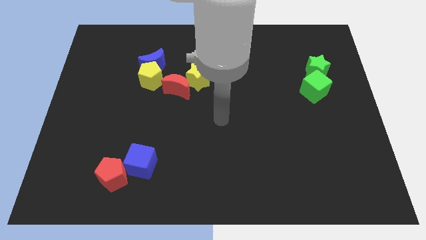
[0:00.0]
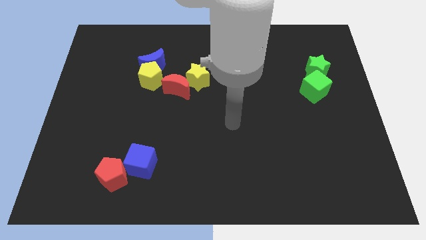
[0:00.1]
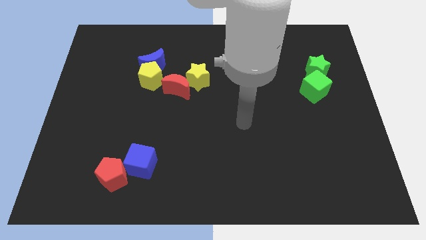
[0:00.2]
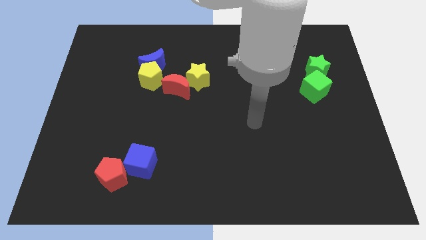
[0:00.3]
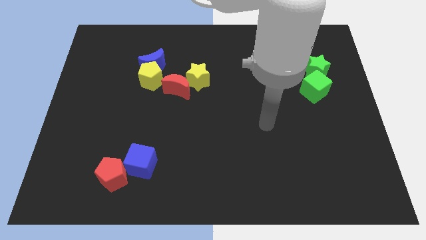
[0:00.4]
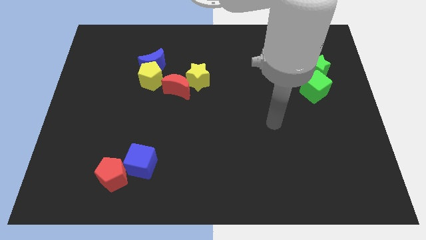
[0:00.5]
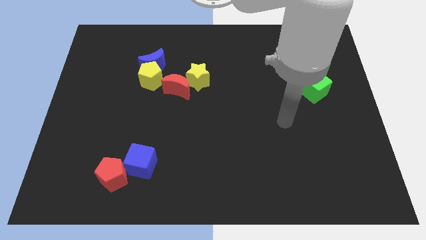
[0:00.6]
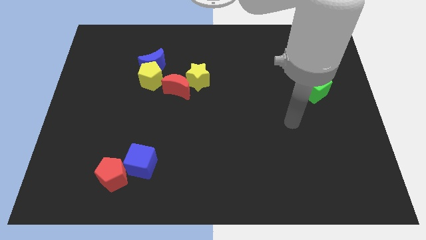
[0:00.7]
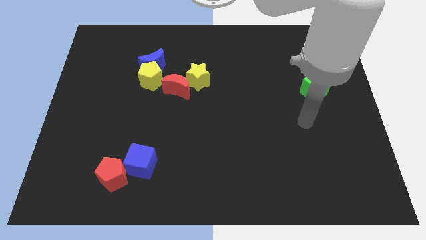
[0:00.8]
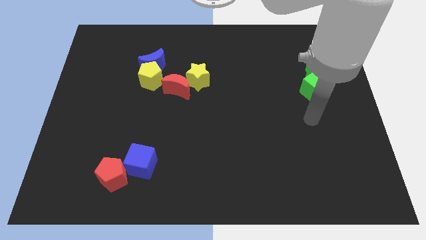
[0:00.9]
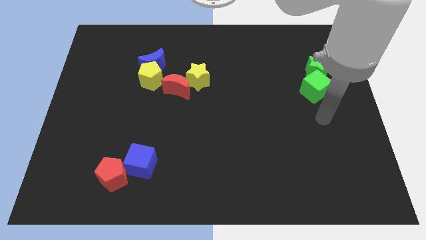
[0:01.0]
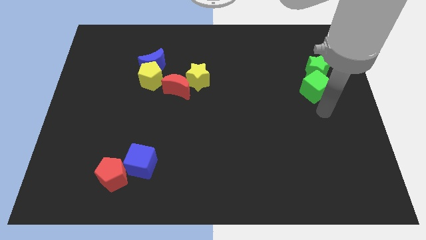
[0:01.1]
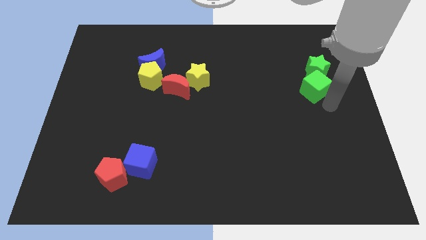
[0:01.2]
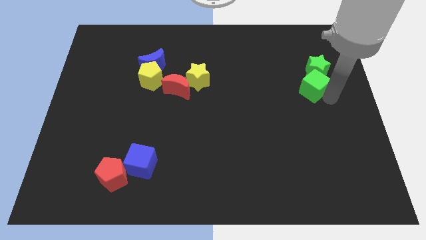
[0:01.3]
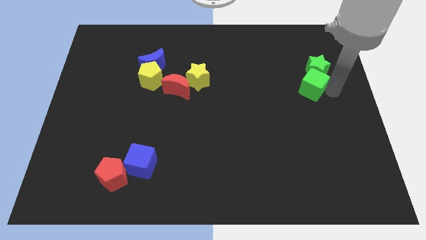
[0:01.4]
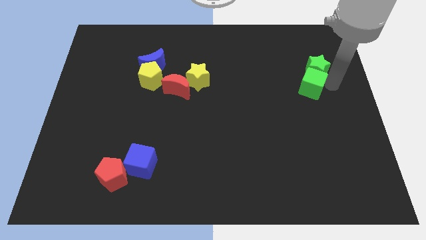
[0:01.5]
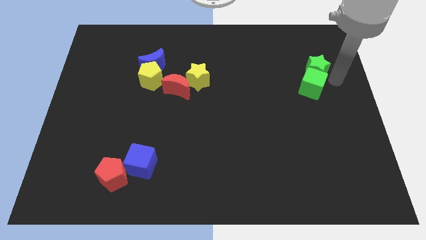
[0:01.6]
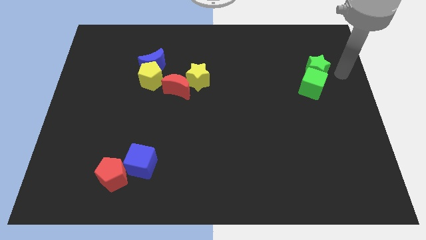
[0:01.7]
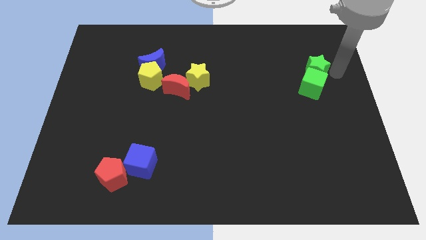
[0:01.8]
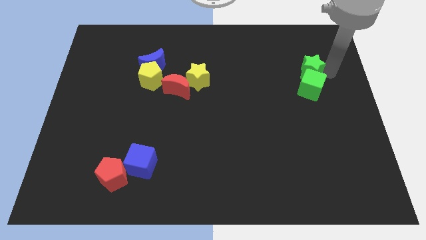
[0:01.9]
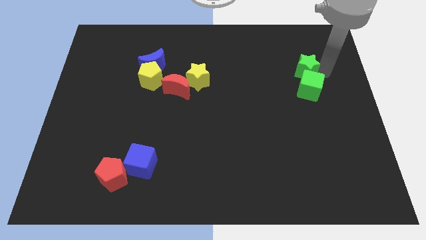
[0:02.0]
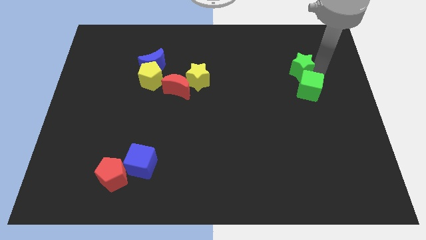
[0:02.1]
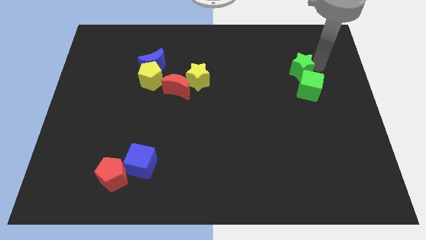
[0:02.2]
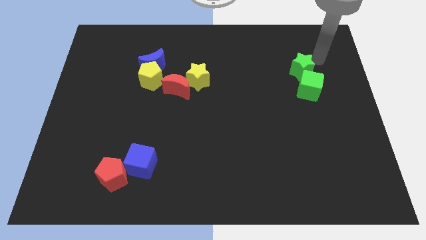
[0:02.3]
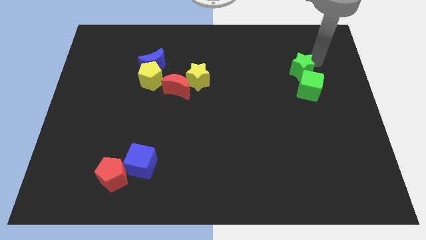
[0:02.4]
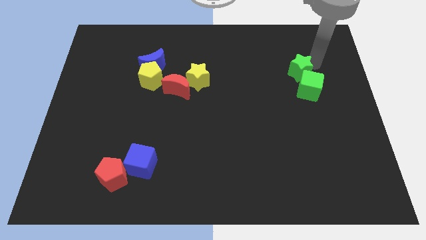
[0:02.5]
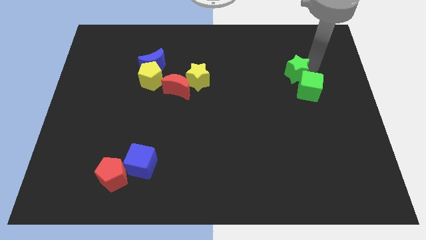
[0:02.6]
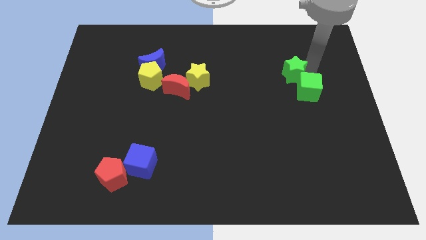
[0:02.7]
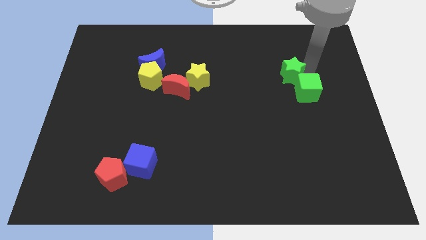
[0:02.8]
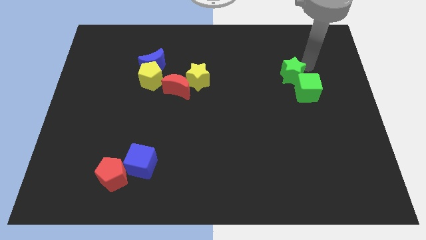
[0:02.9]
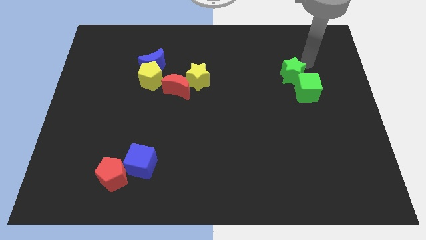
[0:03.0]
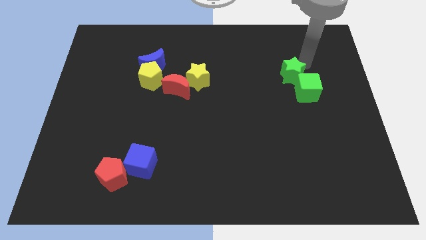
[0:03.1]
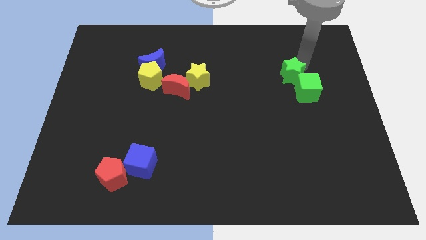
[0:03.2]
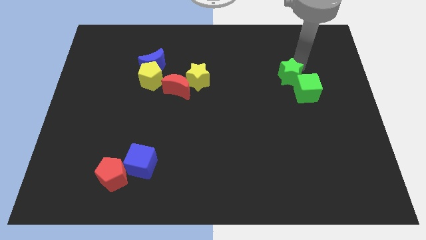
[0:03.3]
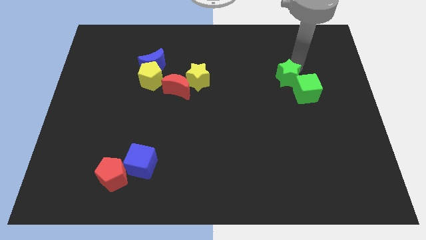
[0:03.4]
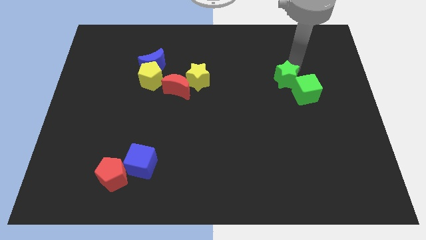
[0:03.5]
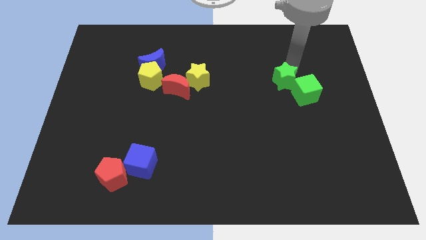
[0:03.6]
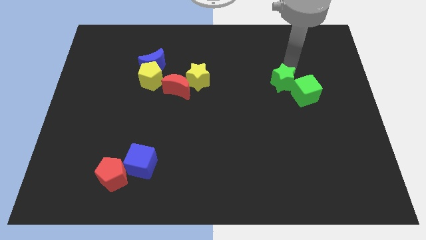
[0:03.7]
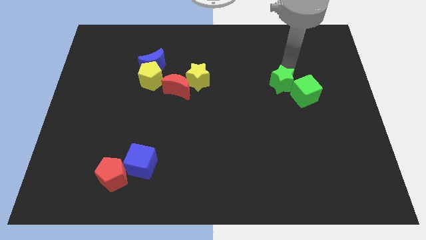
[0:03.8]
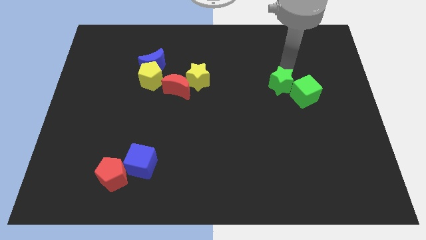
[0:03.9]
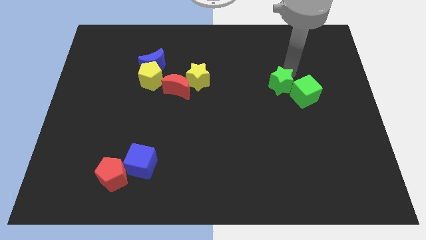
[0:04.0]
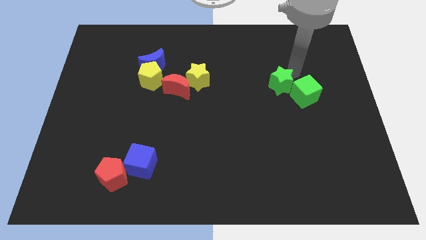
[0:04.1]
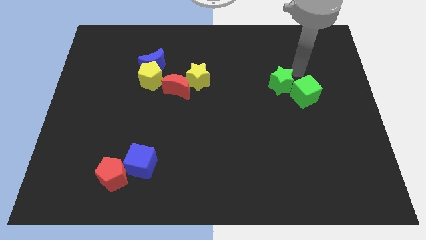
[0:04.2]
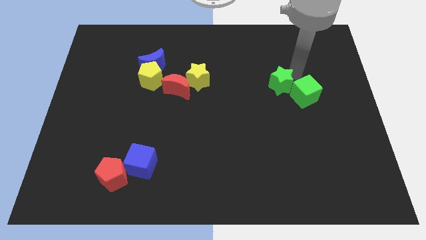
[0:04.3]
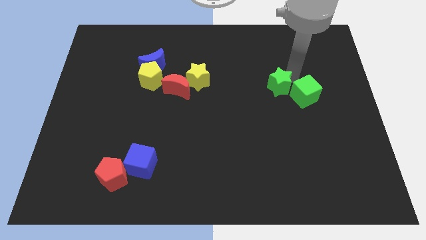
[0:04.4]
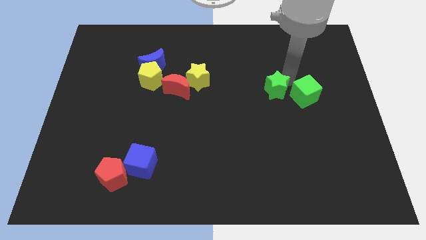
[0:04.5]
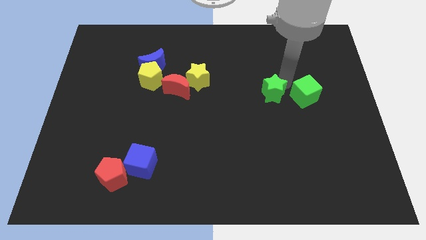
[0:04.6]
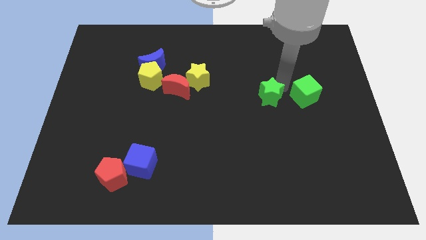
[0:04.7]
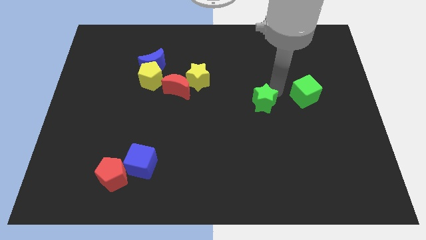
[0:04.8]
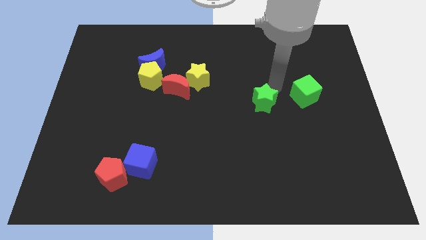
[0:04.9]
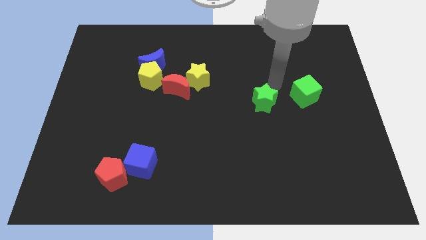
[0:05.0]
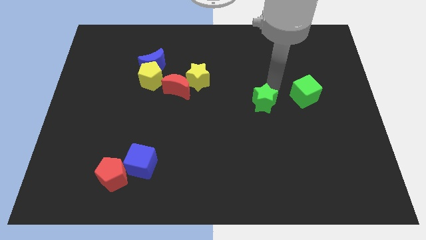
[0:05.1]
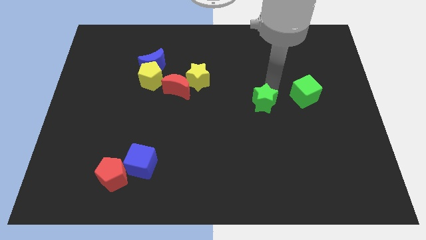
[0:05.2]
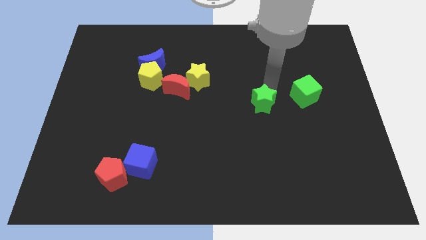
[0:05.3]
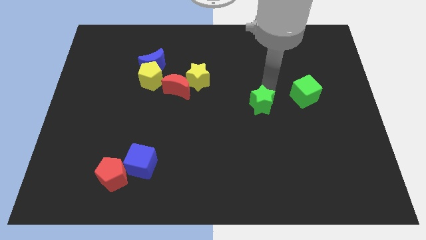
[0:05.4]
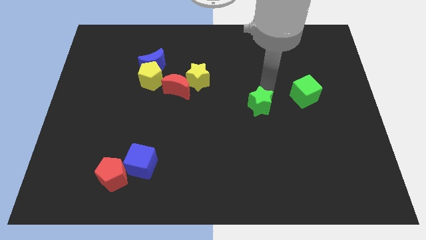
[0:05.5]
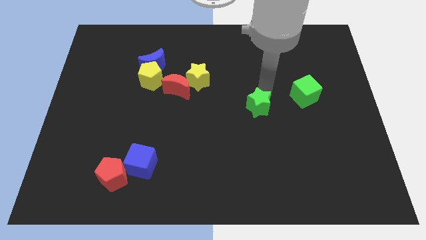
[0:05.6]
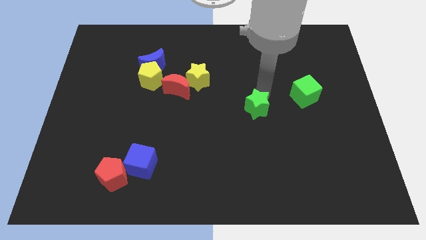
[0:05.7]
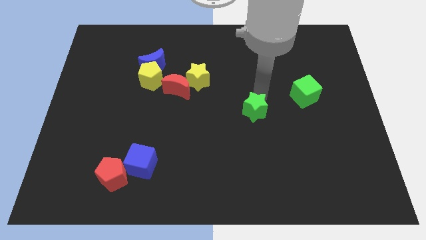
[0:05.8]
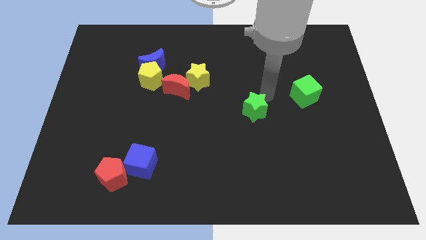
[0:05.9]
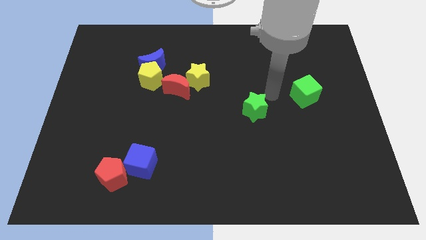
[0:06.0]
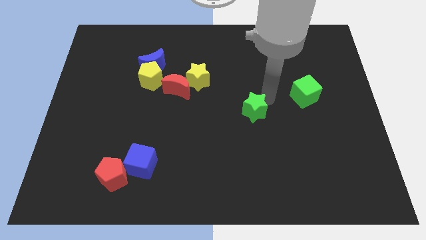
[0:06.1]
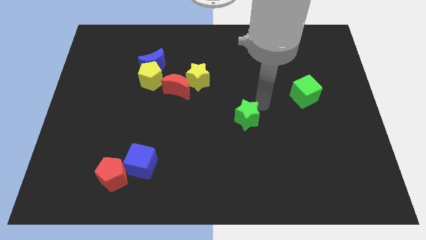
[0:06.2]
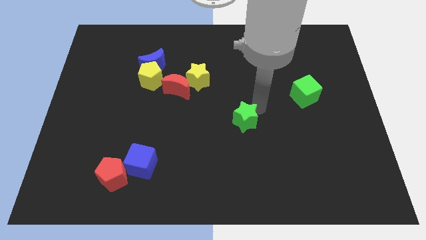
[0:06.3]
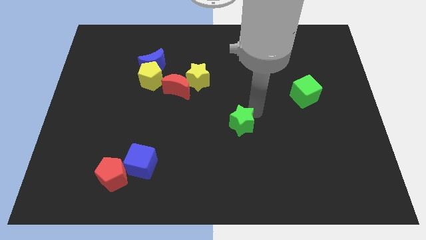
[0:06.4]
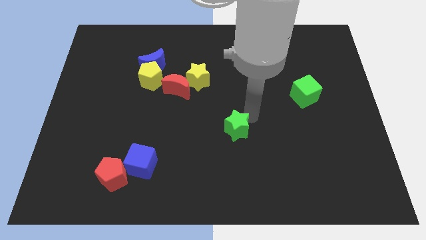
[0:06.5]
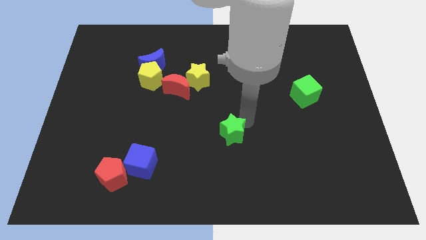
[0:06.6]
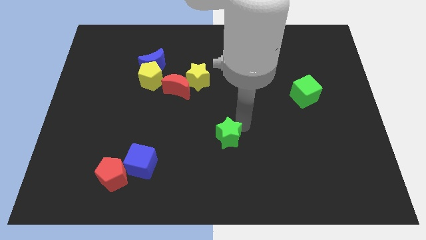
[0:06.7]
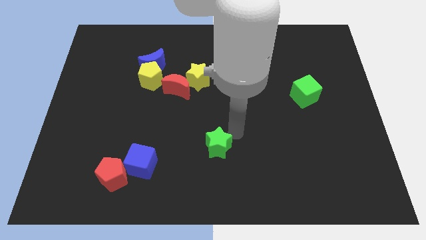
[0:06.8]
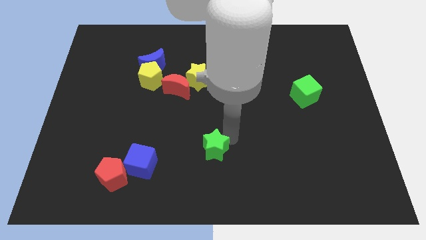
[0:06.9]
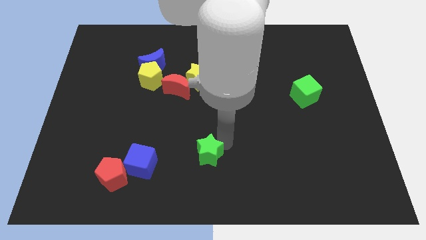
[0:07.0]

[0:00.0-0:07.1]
push the green star to the right side of the blue cube
